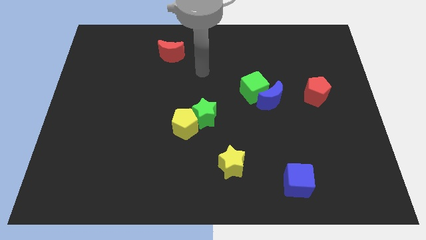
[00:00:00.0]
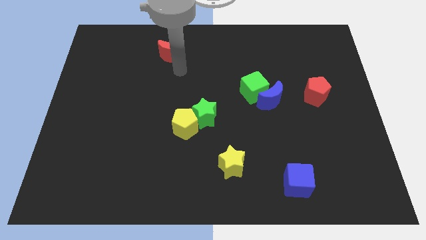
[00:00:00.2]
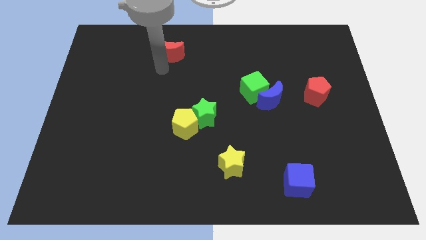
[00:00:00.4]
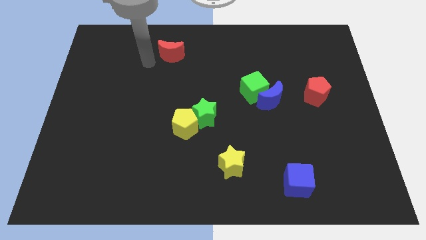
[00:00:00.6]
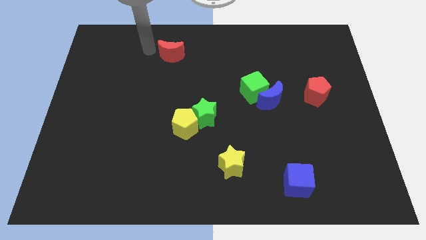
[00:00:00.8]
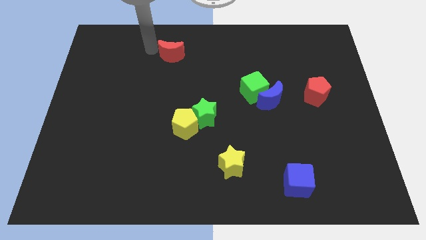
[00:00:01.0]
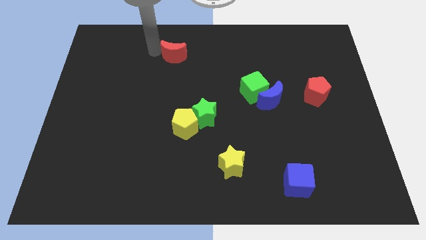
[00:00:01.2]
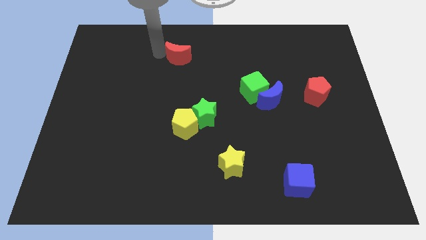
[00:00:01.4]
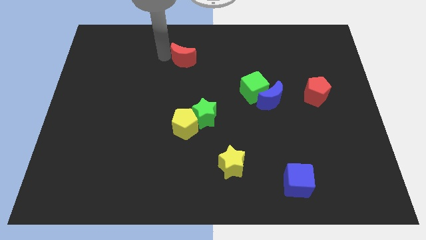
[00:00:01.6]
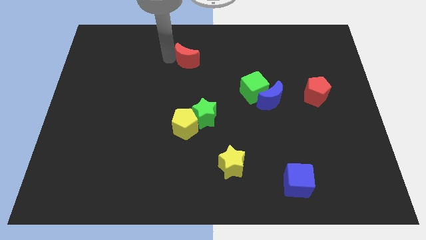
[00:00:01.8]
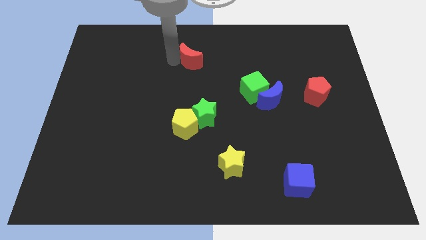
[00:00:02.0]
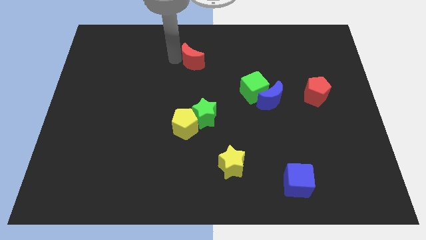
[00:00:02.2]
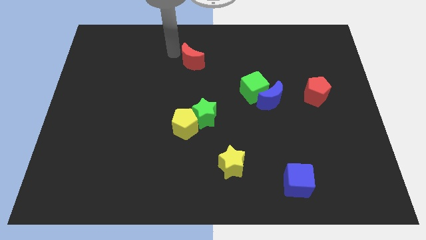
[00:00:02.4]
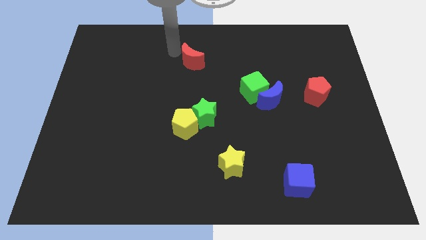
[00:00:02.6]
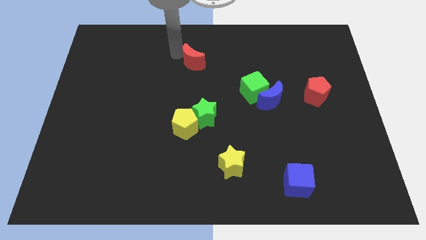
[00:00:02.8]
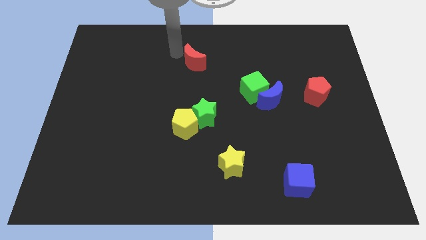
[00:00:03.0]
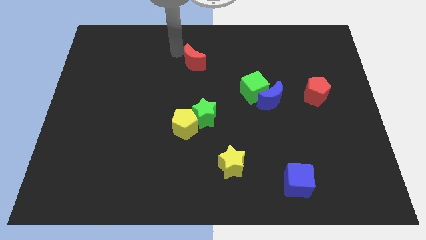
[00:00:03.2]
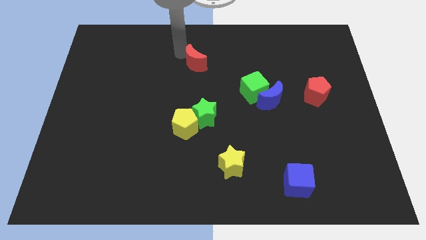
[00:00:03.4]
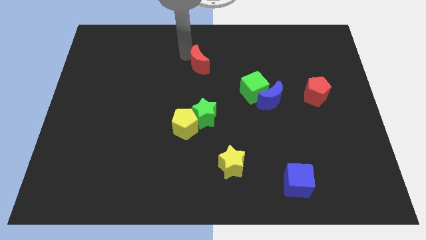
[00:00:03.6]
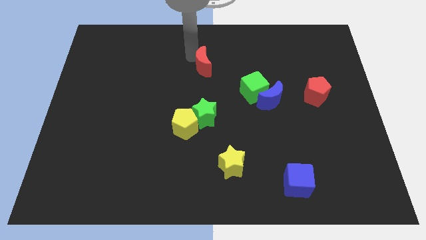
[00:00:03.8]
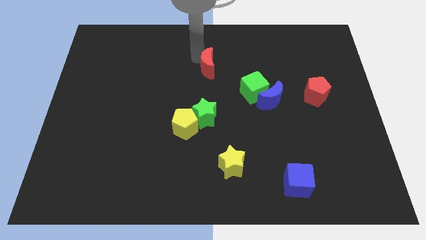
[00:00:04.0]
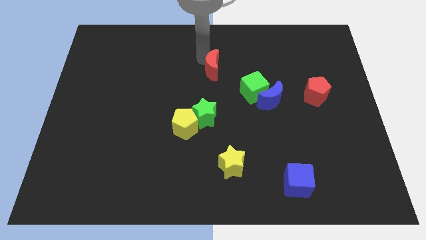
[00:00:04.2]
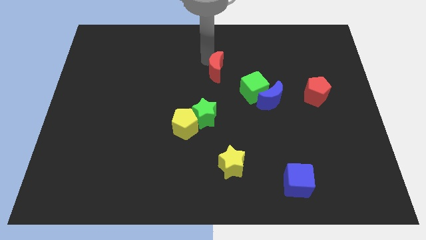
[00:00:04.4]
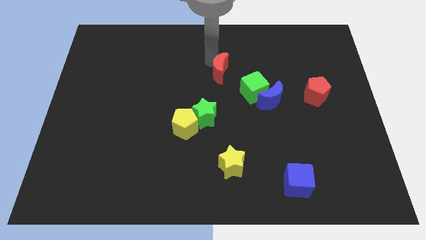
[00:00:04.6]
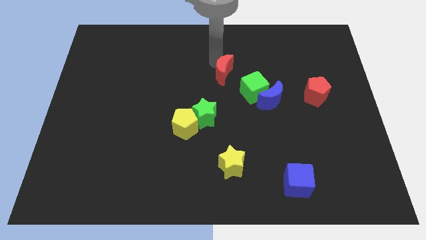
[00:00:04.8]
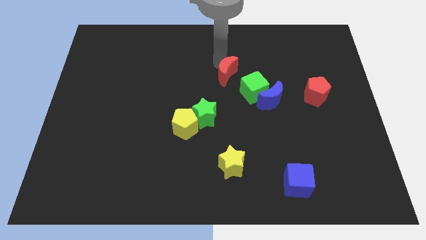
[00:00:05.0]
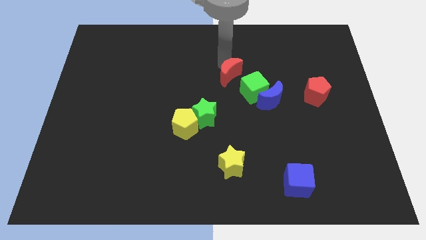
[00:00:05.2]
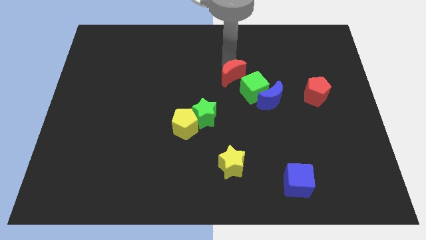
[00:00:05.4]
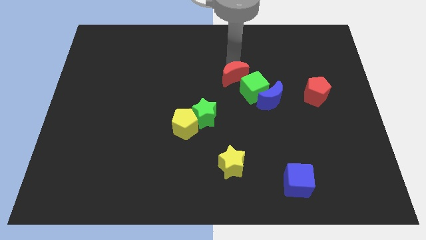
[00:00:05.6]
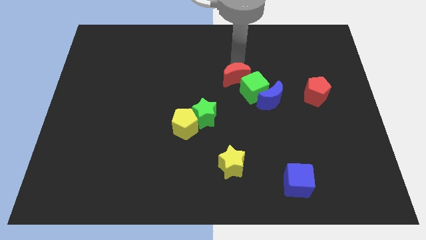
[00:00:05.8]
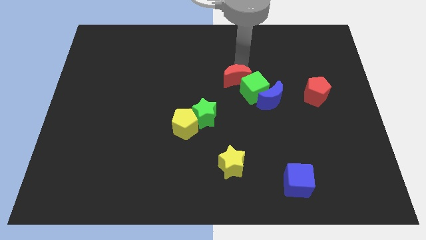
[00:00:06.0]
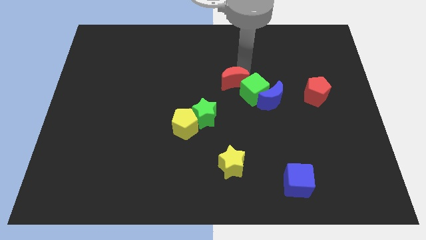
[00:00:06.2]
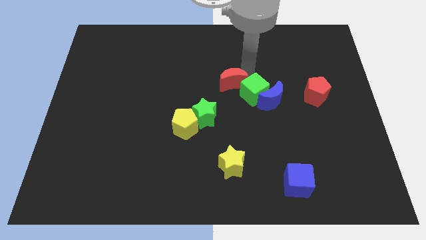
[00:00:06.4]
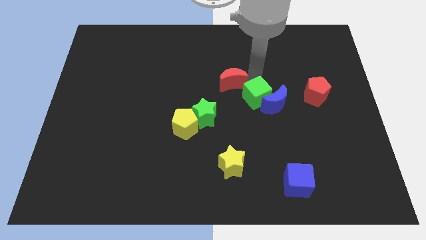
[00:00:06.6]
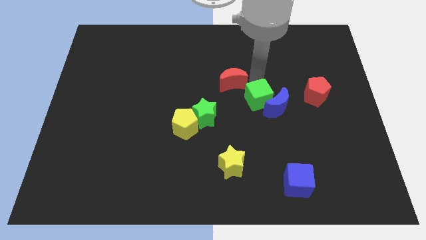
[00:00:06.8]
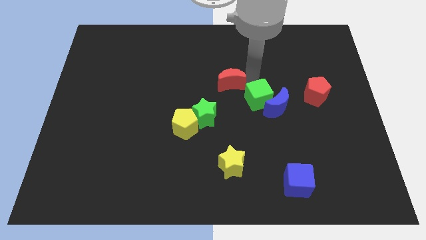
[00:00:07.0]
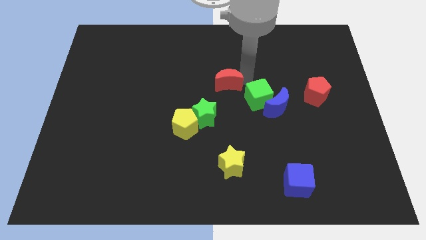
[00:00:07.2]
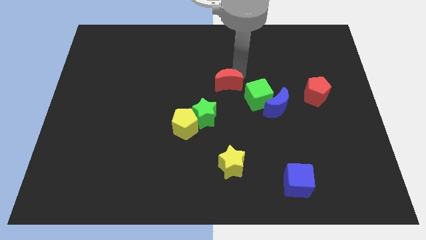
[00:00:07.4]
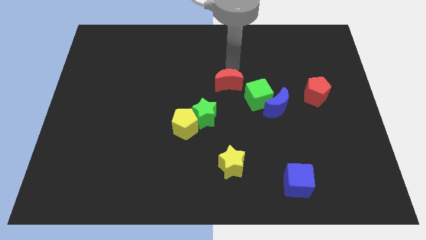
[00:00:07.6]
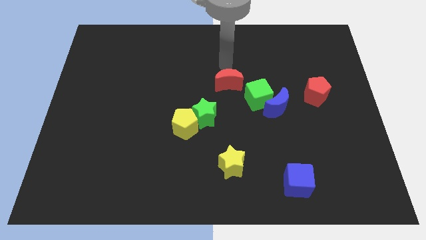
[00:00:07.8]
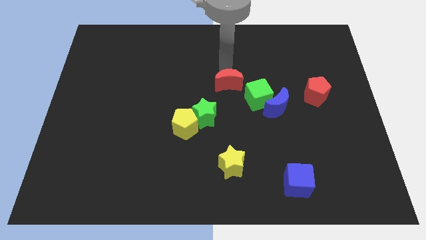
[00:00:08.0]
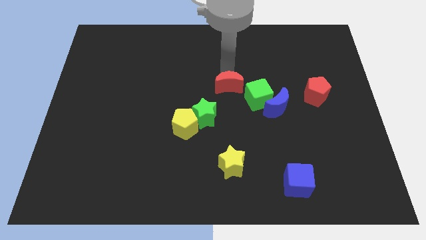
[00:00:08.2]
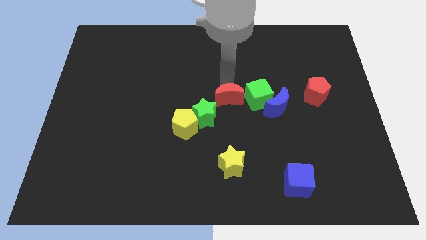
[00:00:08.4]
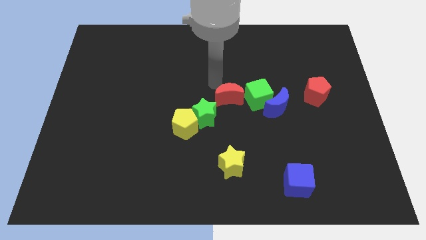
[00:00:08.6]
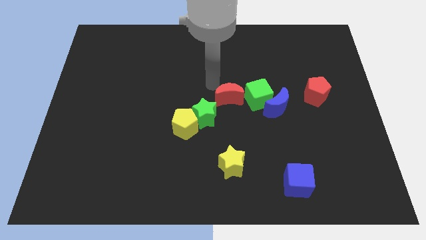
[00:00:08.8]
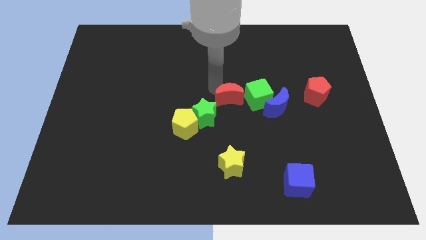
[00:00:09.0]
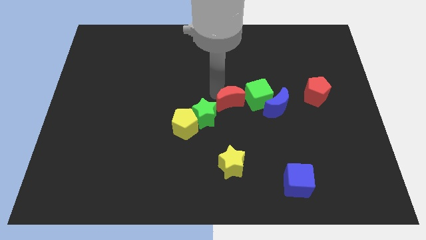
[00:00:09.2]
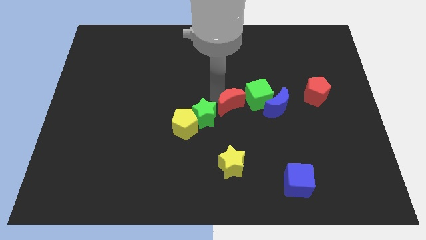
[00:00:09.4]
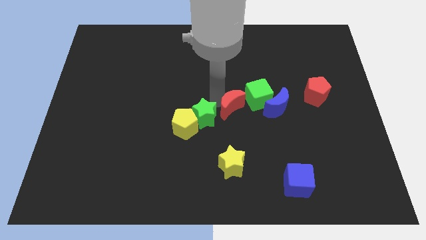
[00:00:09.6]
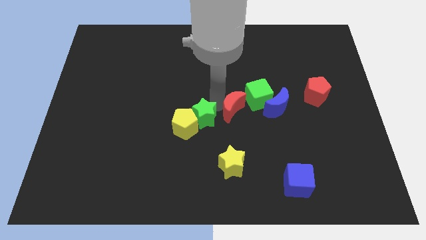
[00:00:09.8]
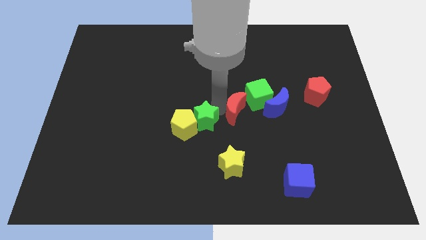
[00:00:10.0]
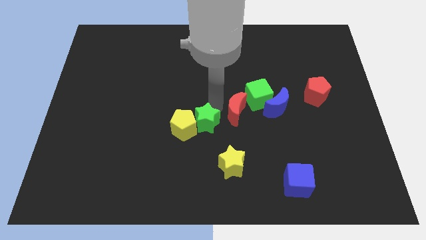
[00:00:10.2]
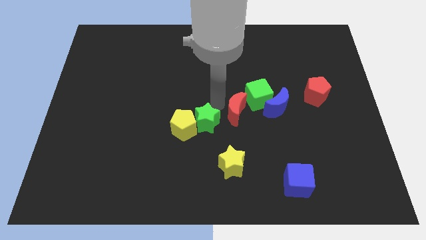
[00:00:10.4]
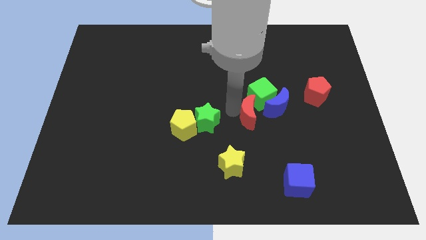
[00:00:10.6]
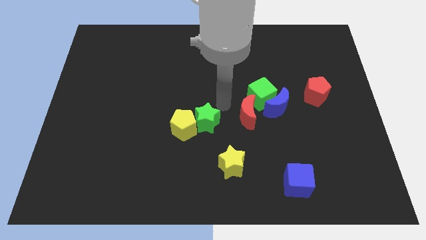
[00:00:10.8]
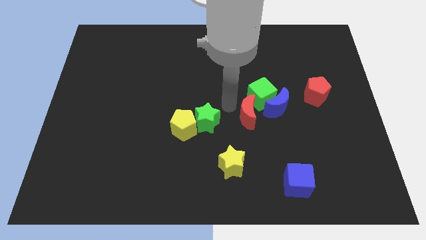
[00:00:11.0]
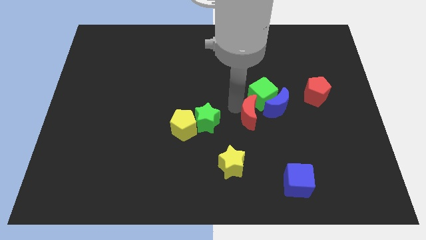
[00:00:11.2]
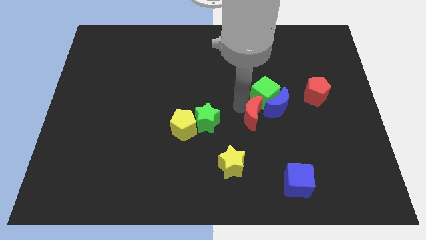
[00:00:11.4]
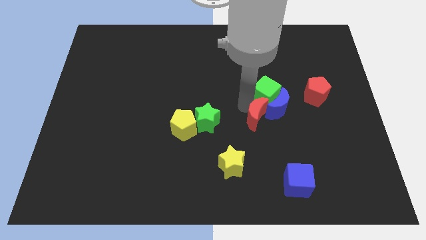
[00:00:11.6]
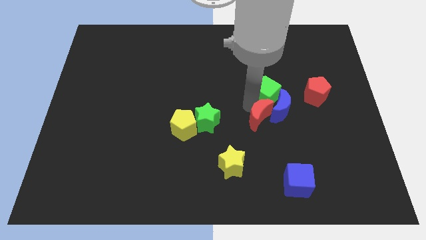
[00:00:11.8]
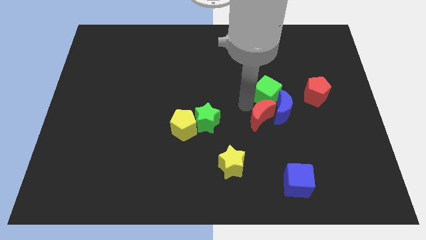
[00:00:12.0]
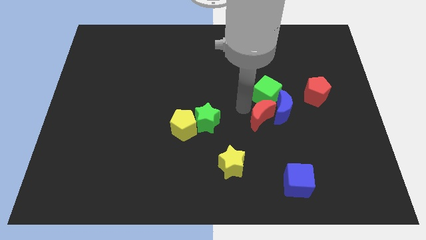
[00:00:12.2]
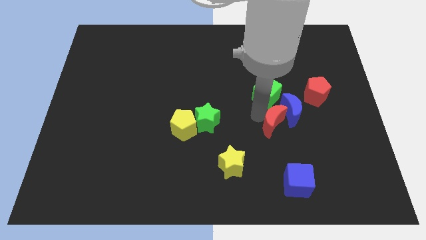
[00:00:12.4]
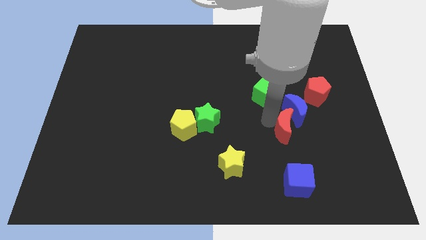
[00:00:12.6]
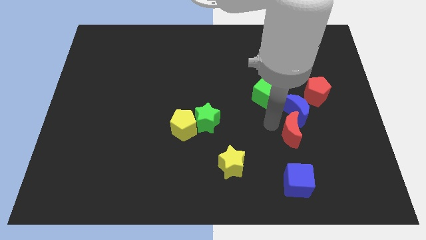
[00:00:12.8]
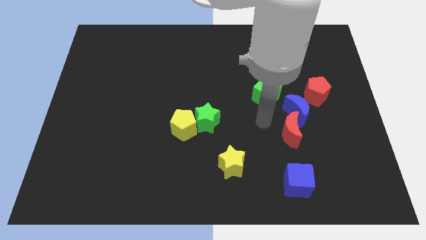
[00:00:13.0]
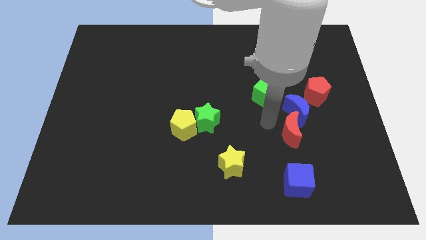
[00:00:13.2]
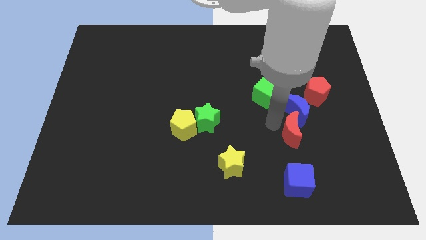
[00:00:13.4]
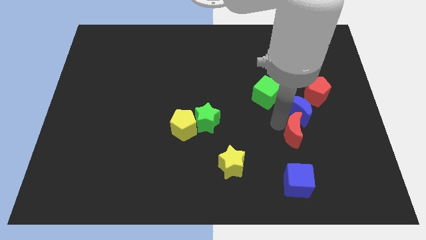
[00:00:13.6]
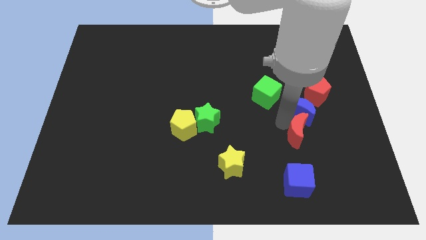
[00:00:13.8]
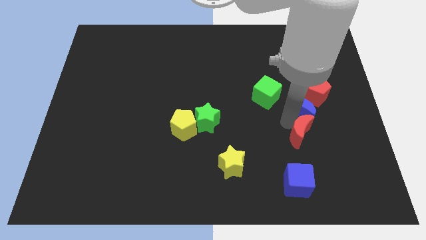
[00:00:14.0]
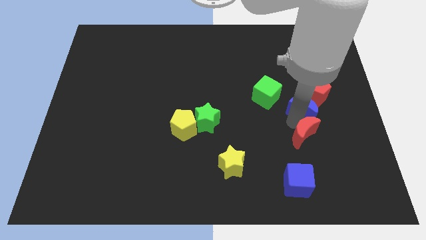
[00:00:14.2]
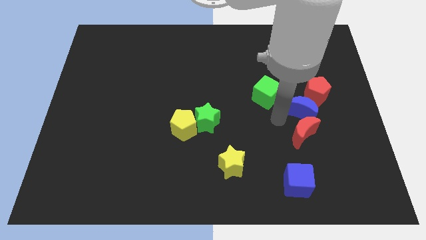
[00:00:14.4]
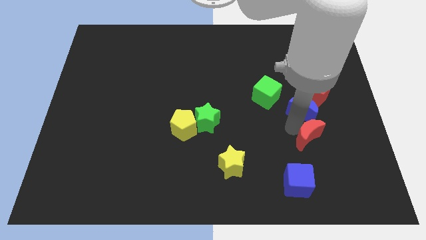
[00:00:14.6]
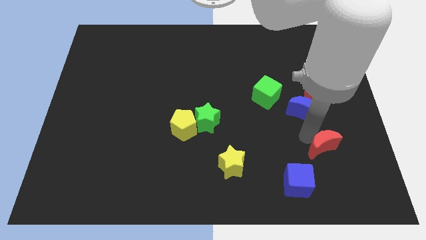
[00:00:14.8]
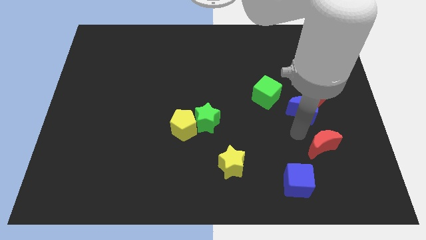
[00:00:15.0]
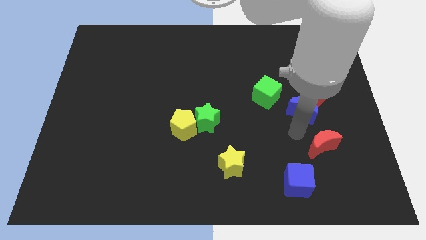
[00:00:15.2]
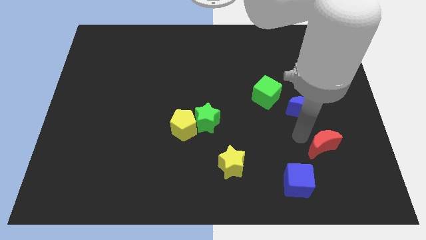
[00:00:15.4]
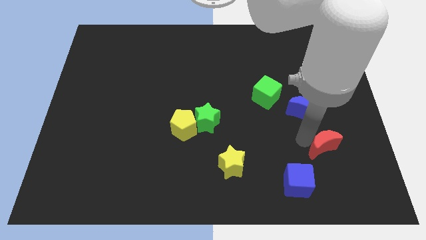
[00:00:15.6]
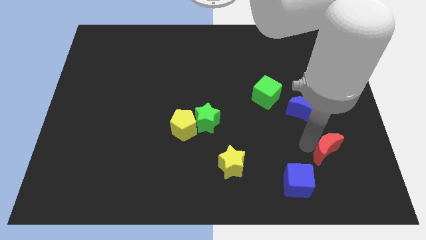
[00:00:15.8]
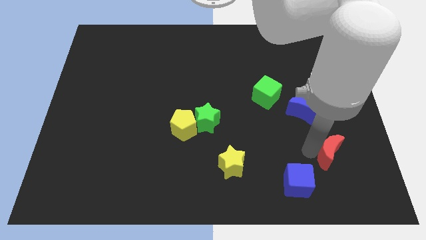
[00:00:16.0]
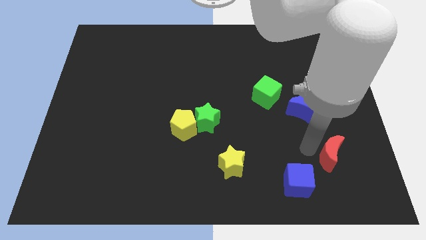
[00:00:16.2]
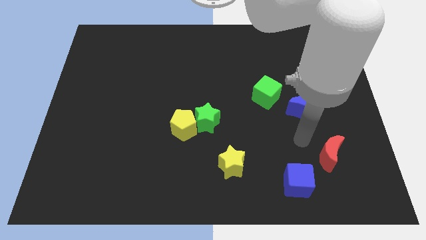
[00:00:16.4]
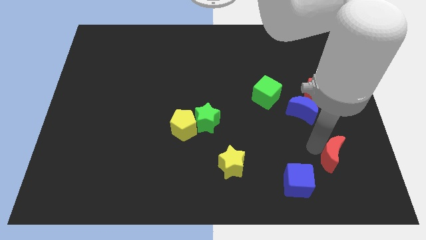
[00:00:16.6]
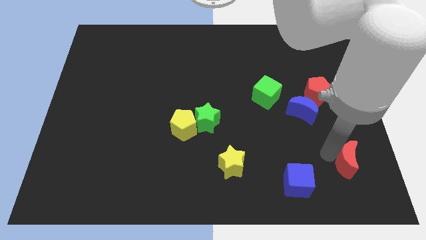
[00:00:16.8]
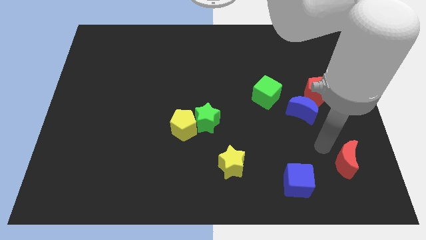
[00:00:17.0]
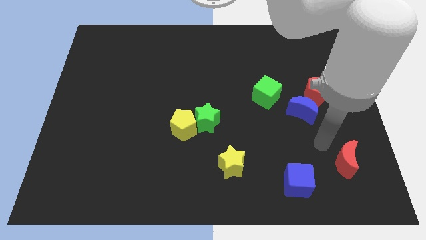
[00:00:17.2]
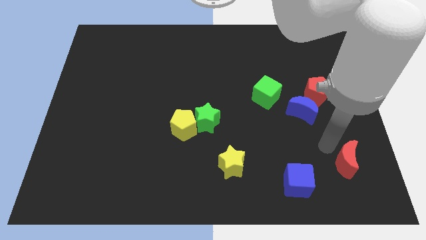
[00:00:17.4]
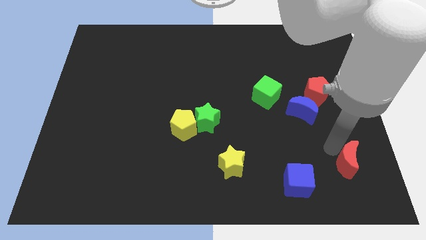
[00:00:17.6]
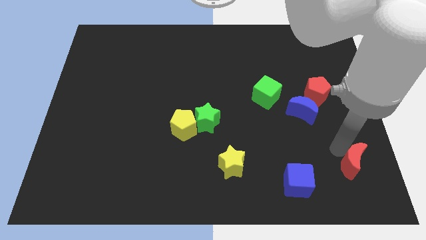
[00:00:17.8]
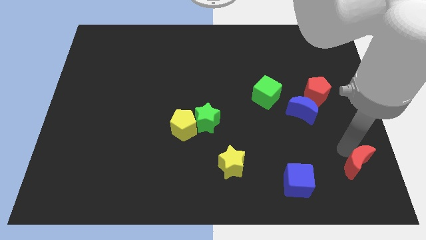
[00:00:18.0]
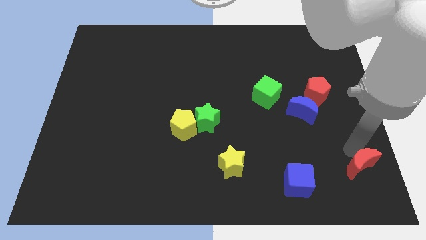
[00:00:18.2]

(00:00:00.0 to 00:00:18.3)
push the red moon to the bottom right of the board
